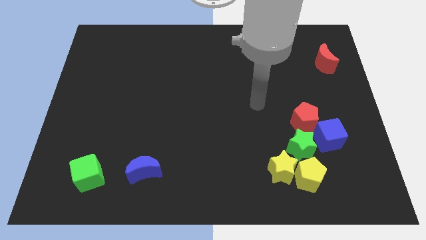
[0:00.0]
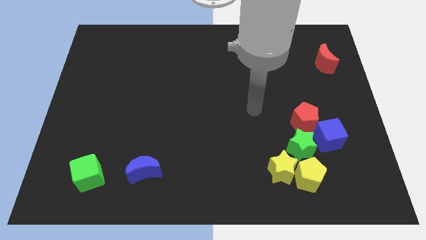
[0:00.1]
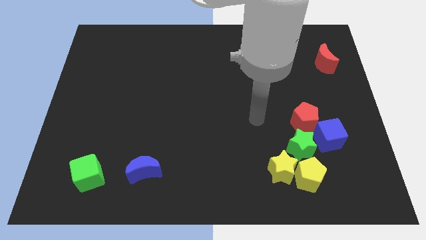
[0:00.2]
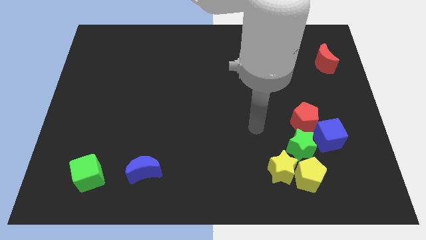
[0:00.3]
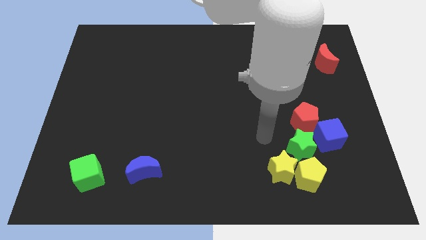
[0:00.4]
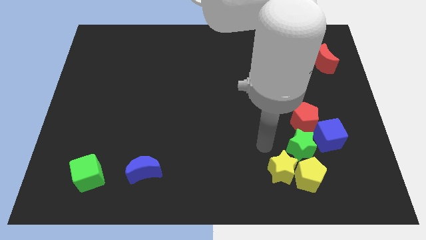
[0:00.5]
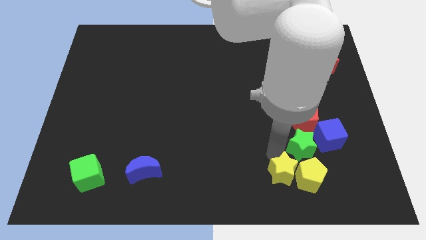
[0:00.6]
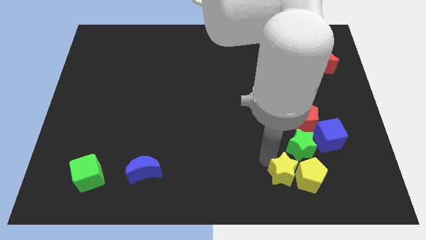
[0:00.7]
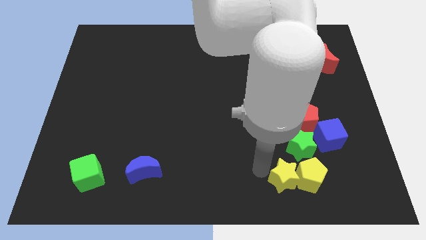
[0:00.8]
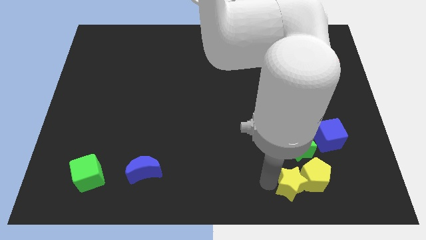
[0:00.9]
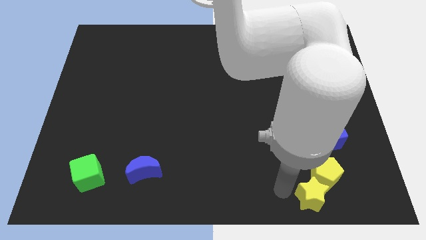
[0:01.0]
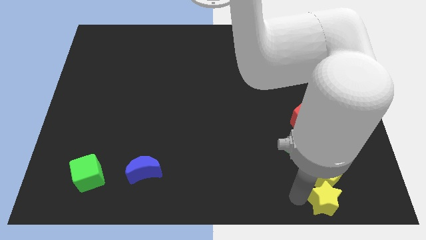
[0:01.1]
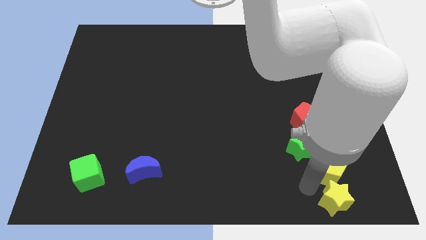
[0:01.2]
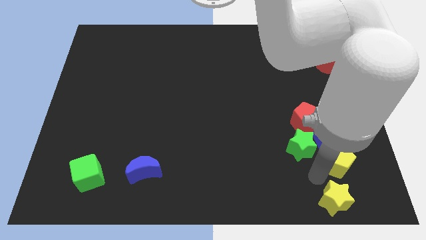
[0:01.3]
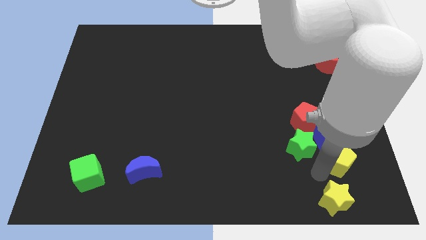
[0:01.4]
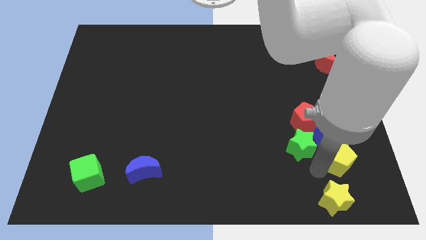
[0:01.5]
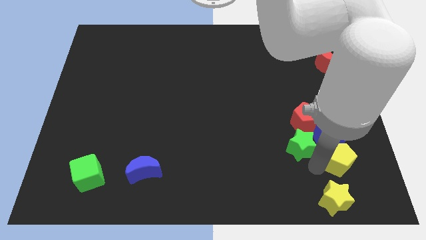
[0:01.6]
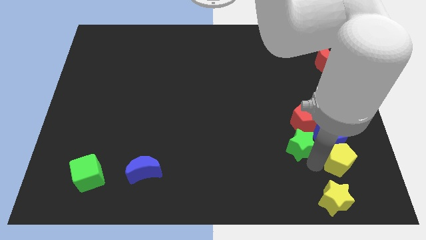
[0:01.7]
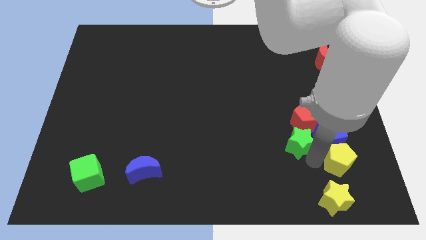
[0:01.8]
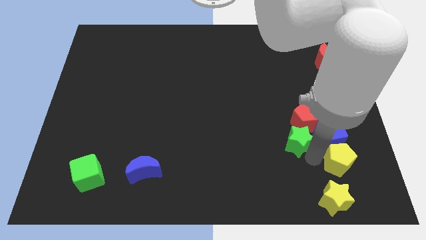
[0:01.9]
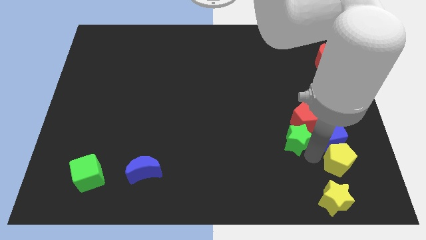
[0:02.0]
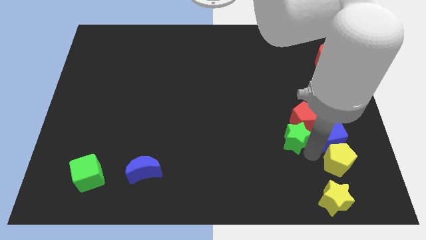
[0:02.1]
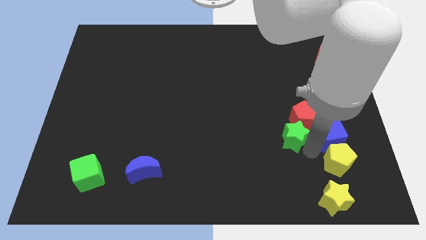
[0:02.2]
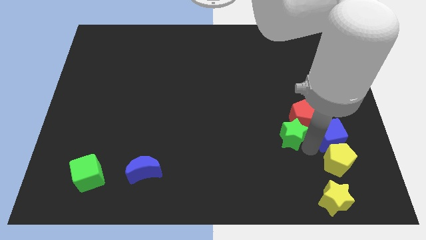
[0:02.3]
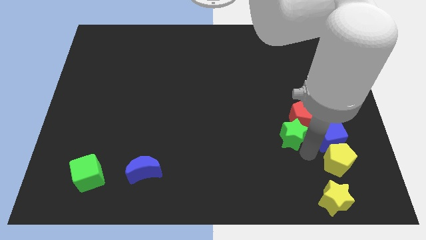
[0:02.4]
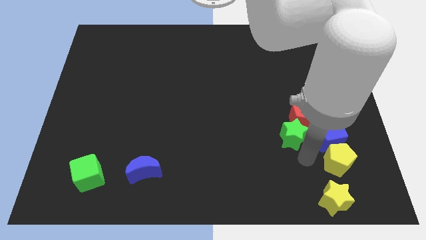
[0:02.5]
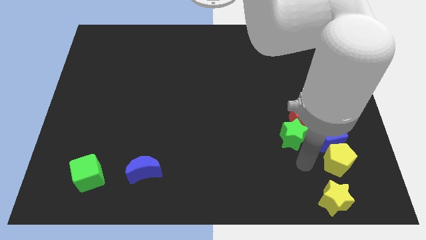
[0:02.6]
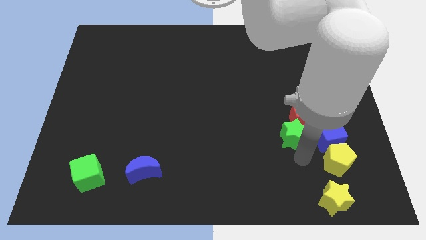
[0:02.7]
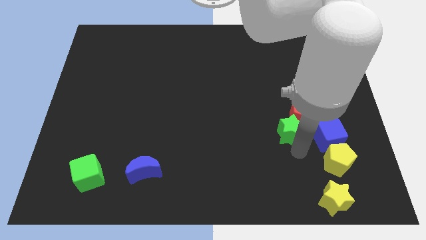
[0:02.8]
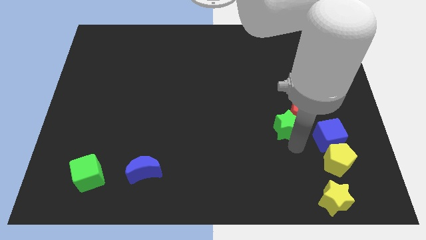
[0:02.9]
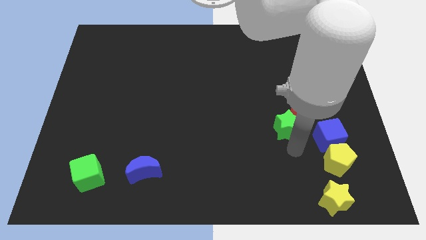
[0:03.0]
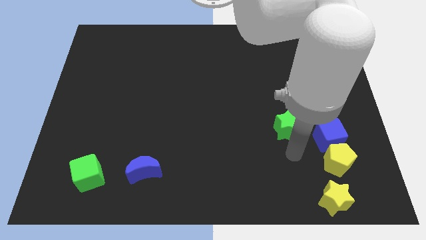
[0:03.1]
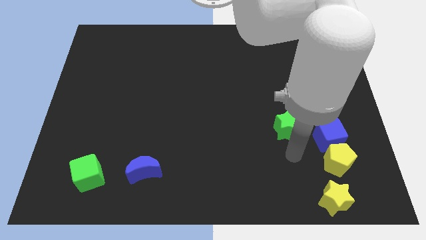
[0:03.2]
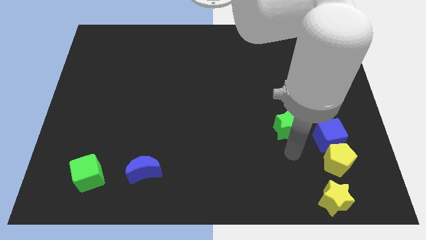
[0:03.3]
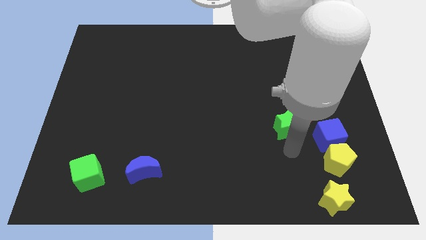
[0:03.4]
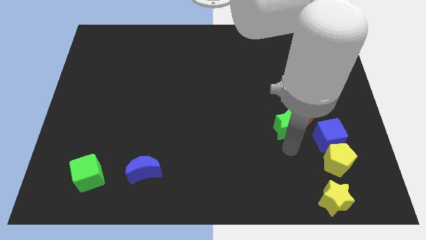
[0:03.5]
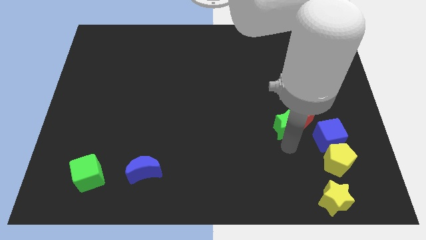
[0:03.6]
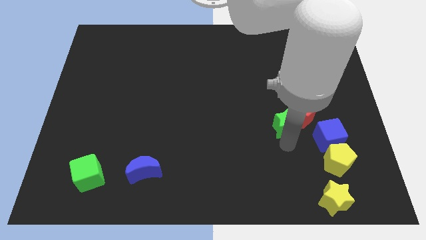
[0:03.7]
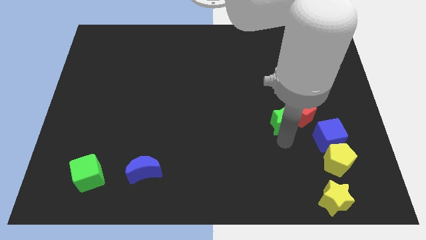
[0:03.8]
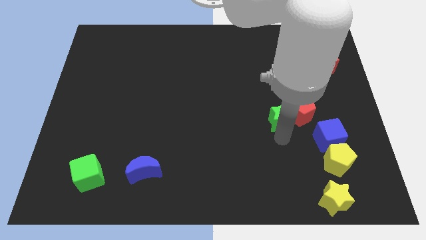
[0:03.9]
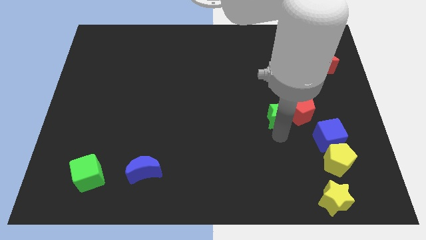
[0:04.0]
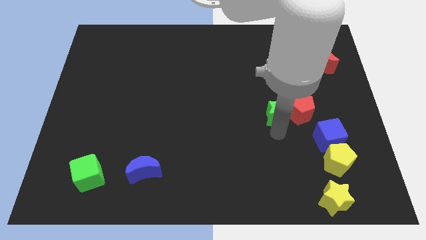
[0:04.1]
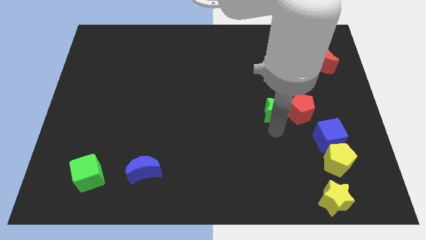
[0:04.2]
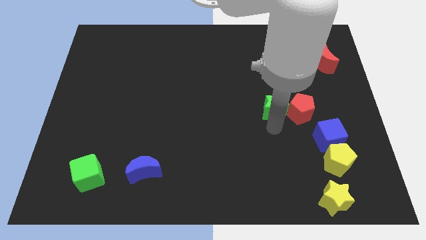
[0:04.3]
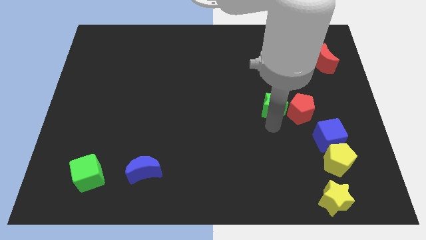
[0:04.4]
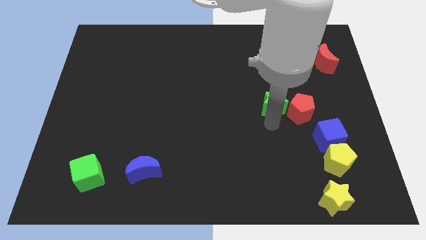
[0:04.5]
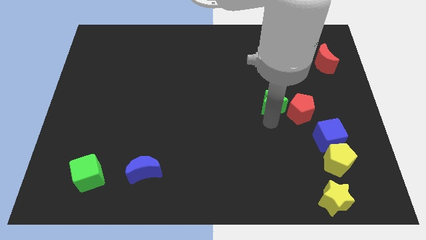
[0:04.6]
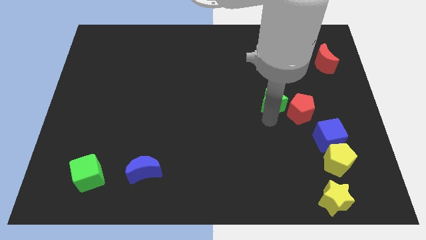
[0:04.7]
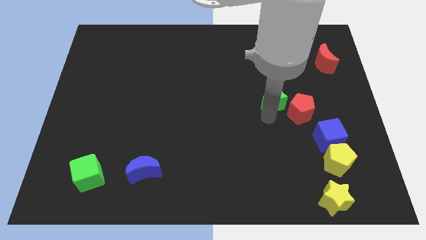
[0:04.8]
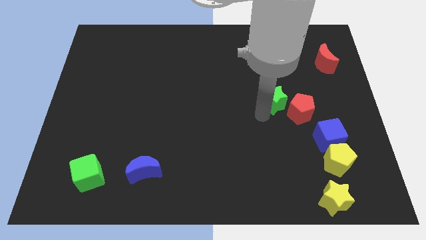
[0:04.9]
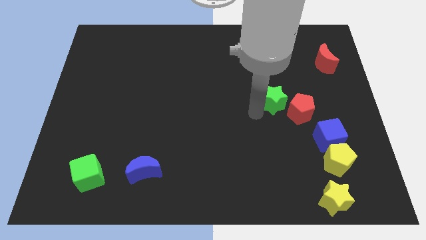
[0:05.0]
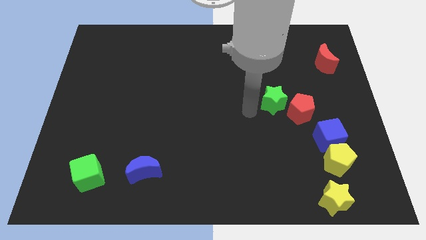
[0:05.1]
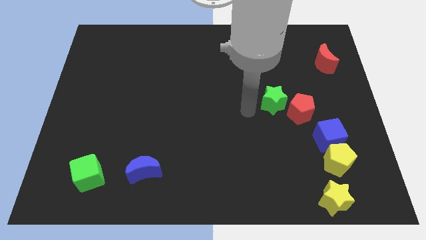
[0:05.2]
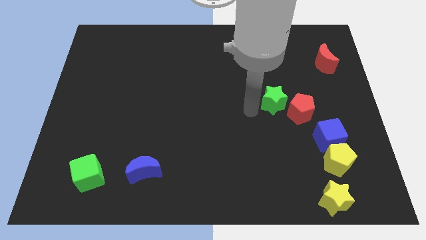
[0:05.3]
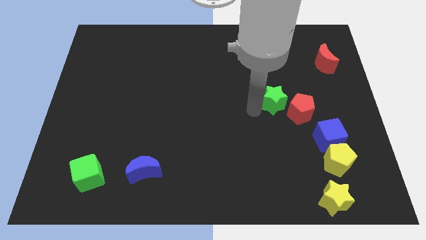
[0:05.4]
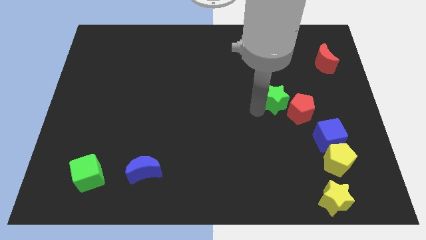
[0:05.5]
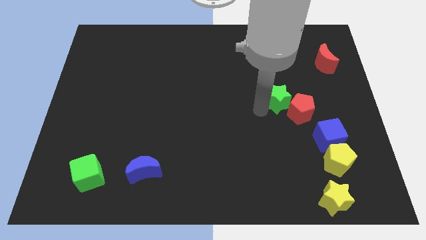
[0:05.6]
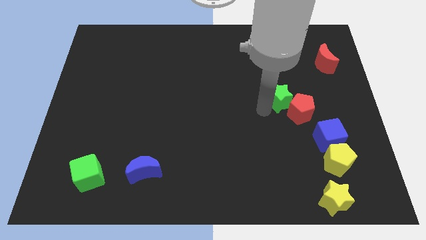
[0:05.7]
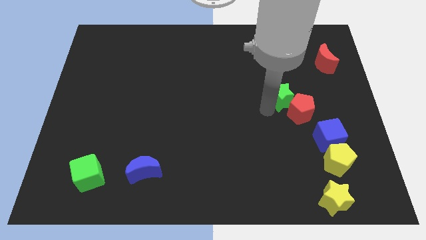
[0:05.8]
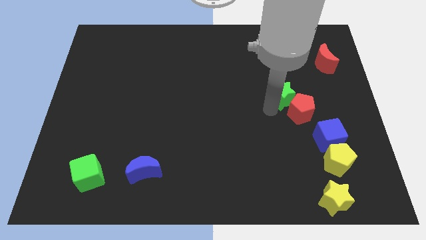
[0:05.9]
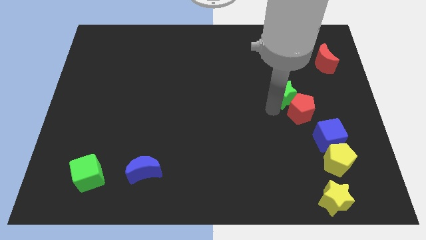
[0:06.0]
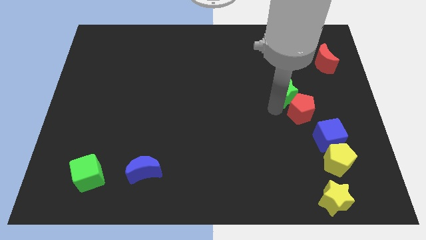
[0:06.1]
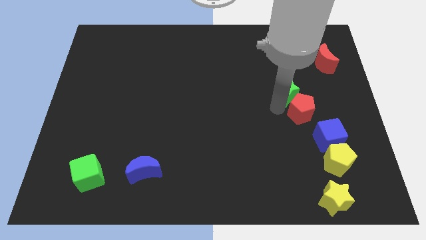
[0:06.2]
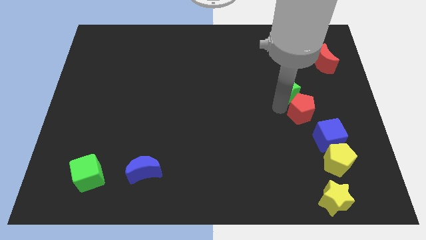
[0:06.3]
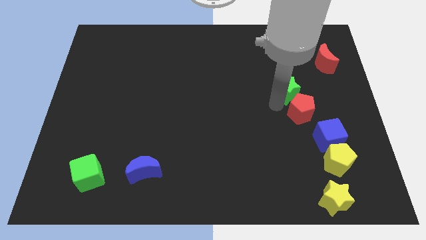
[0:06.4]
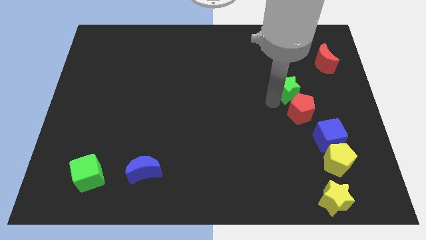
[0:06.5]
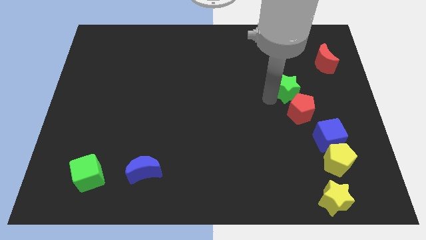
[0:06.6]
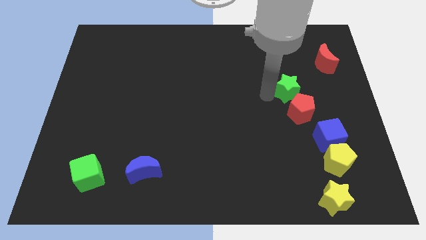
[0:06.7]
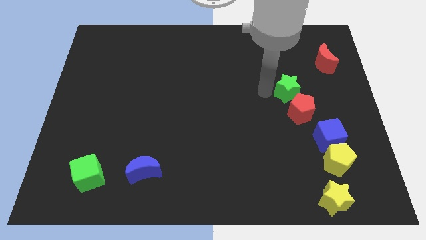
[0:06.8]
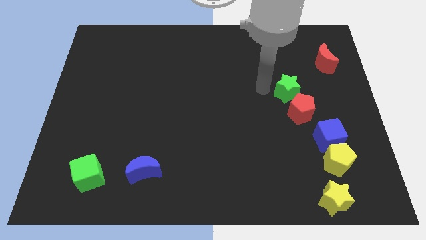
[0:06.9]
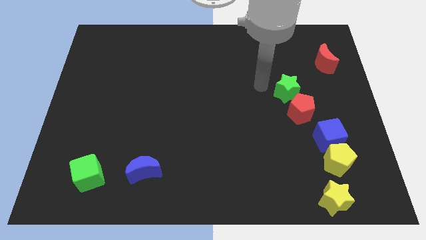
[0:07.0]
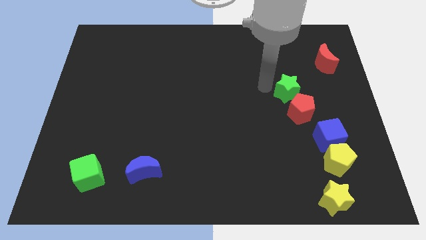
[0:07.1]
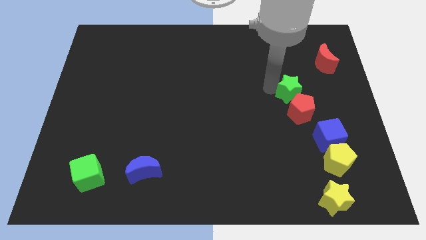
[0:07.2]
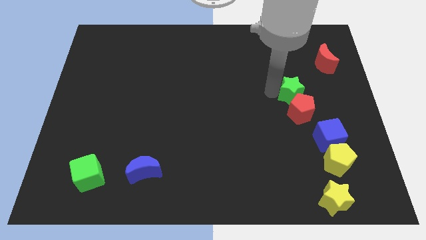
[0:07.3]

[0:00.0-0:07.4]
move the green star diagonally up and to the right of the red pentagon
